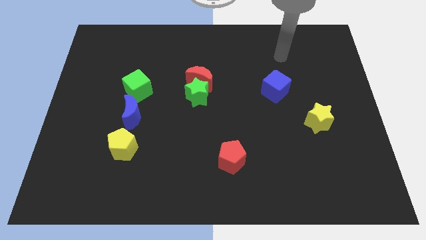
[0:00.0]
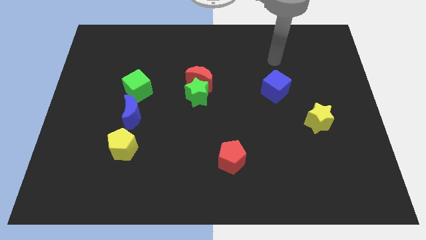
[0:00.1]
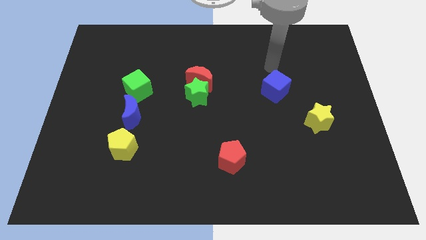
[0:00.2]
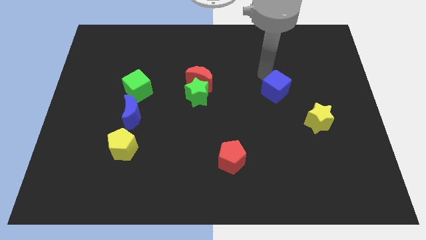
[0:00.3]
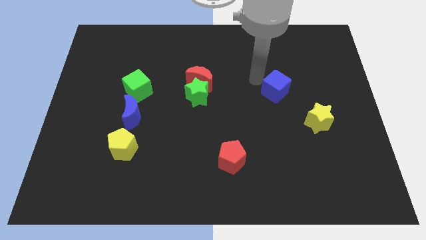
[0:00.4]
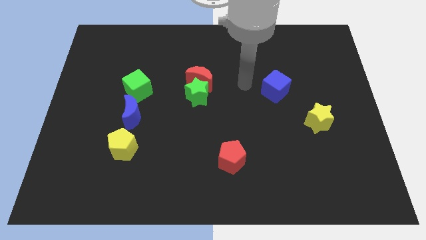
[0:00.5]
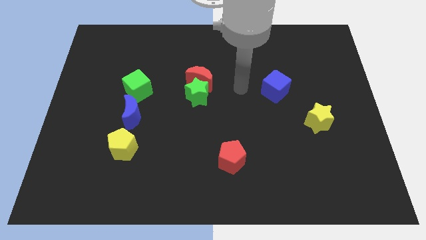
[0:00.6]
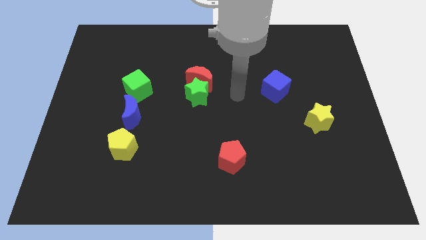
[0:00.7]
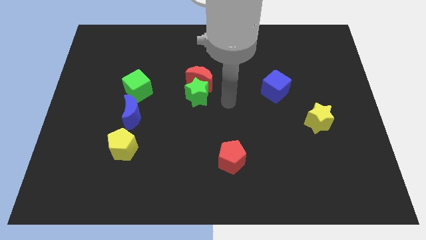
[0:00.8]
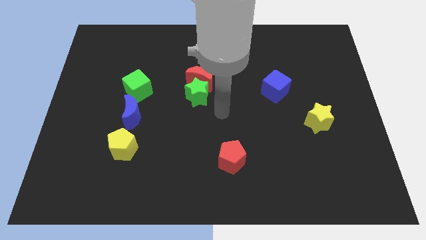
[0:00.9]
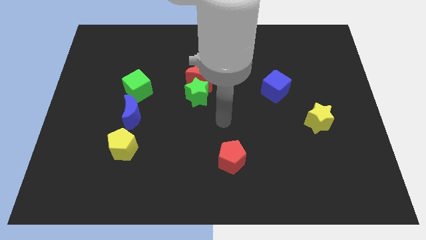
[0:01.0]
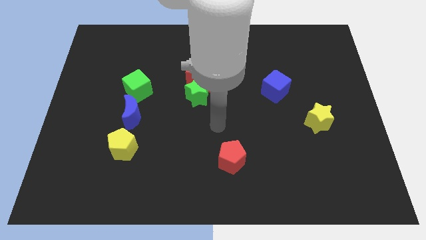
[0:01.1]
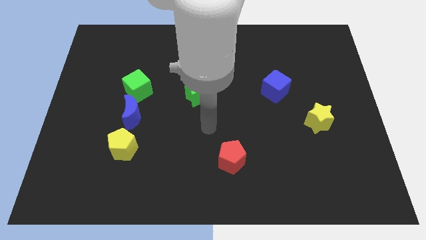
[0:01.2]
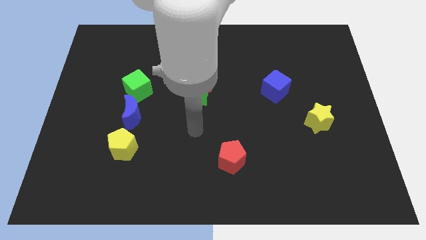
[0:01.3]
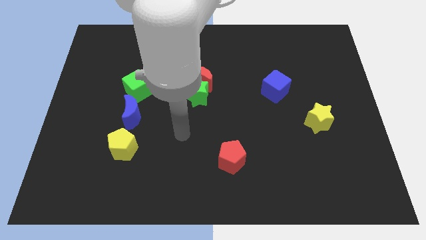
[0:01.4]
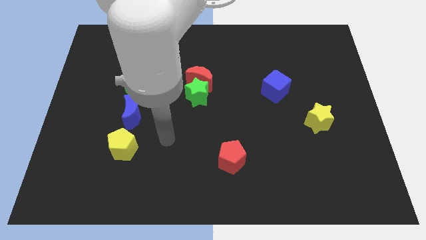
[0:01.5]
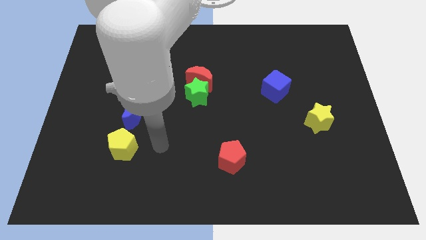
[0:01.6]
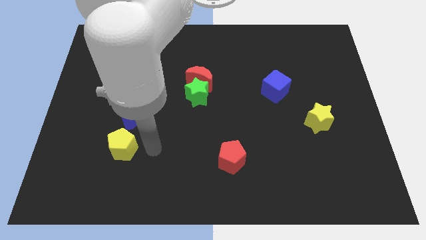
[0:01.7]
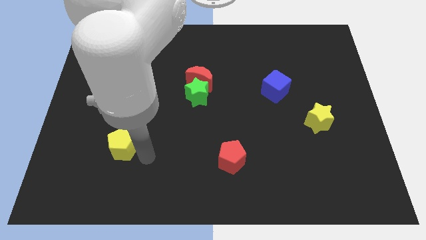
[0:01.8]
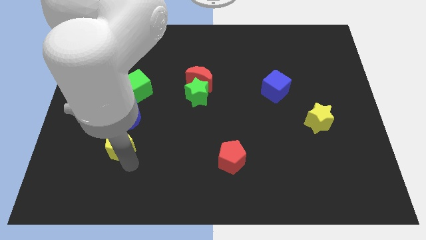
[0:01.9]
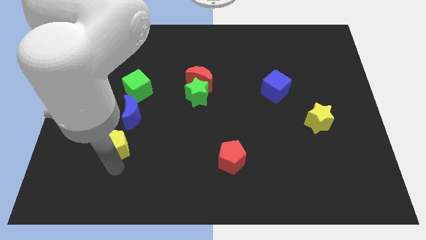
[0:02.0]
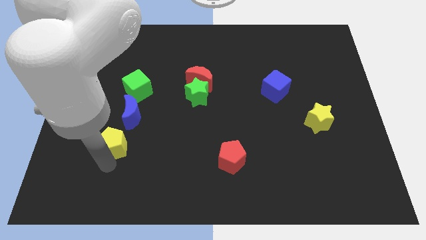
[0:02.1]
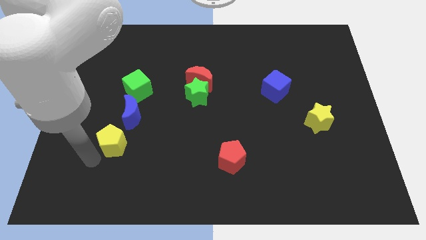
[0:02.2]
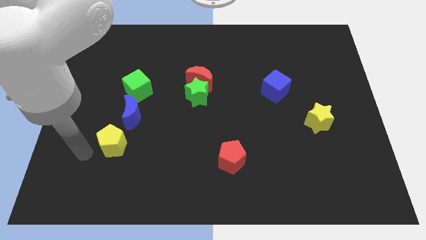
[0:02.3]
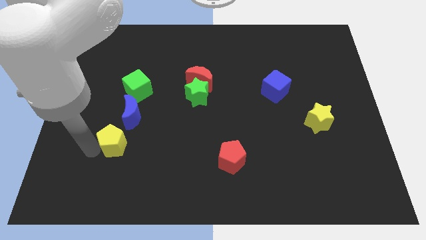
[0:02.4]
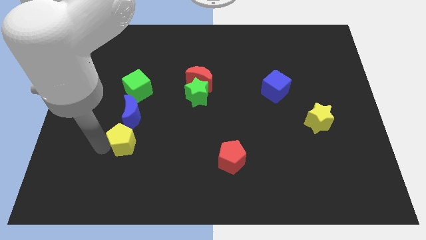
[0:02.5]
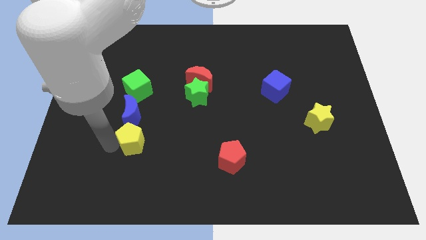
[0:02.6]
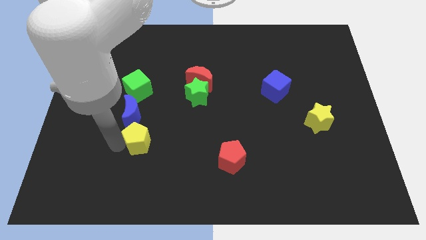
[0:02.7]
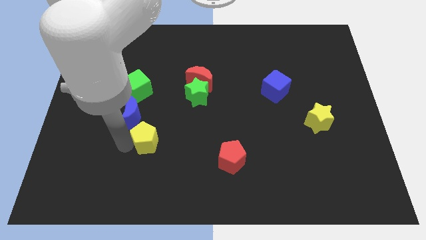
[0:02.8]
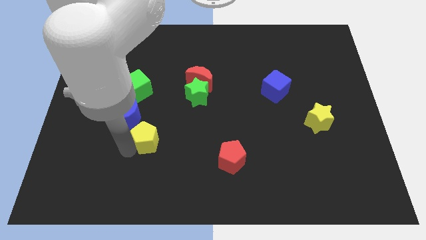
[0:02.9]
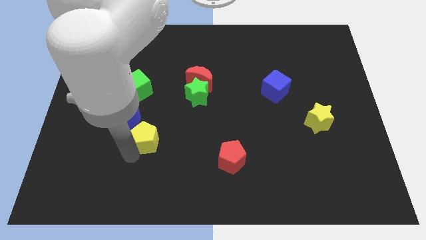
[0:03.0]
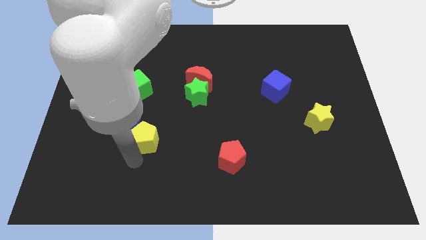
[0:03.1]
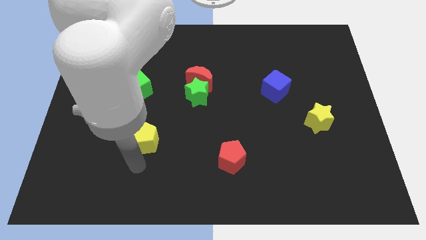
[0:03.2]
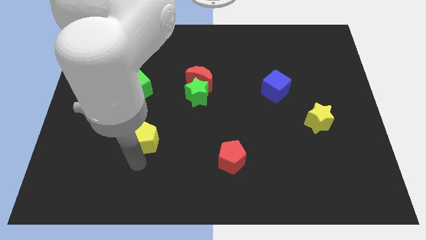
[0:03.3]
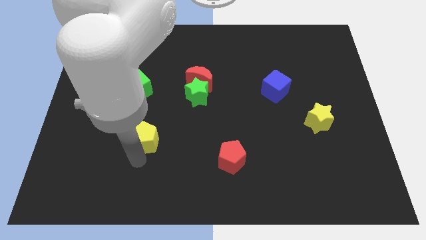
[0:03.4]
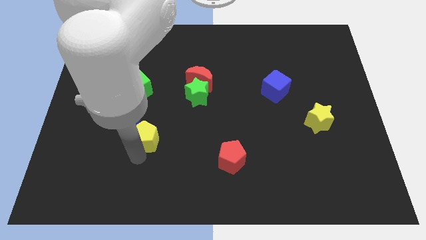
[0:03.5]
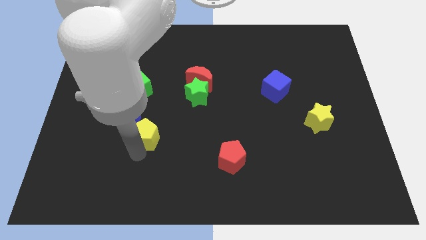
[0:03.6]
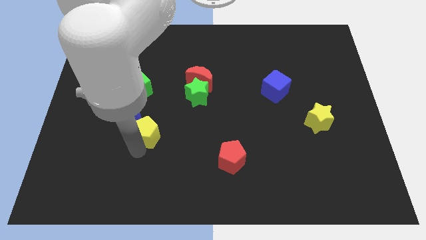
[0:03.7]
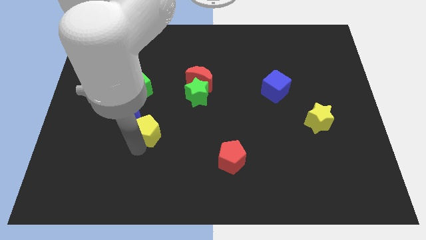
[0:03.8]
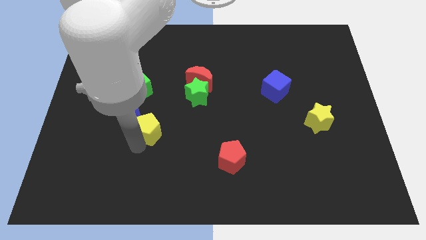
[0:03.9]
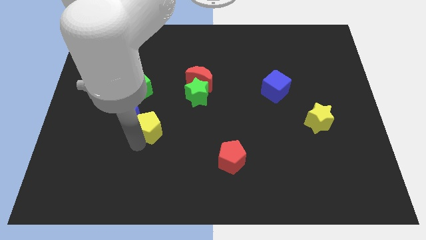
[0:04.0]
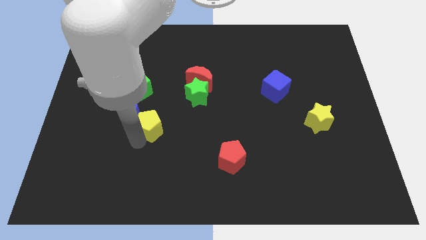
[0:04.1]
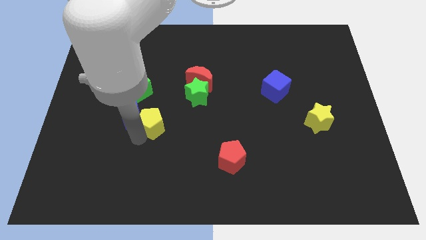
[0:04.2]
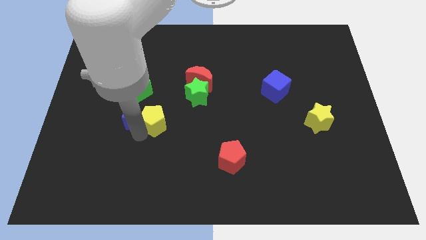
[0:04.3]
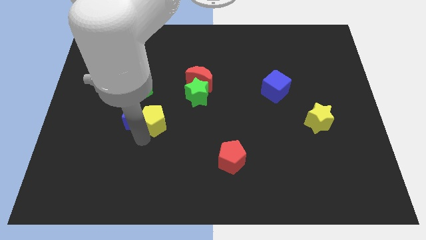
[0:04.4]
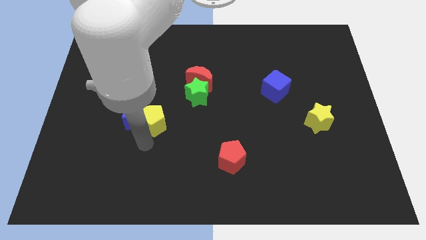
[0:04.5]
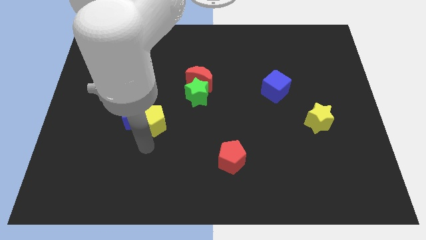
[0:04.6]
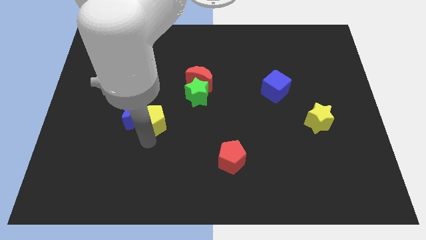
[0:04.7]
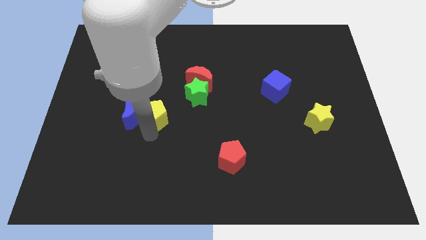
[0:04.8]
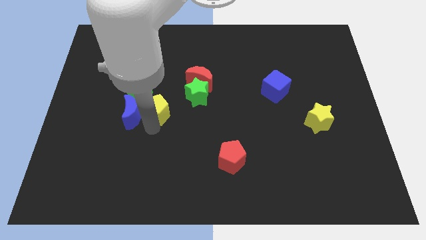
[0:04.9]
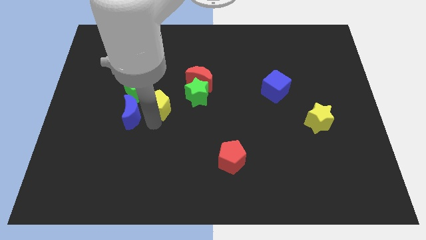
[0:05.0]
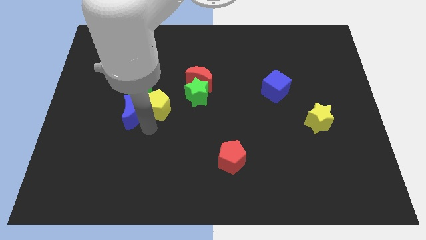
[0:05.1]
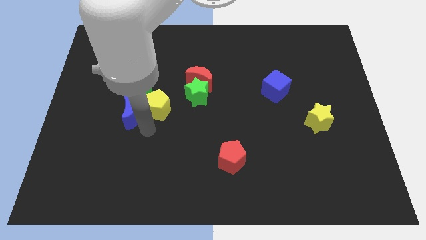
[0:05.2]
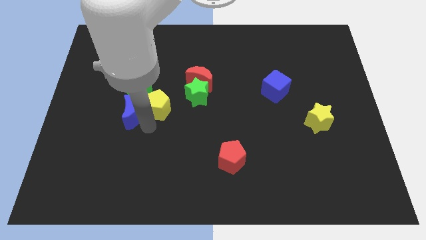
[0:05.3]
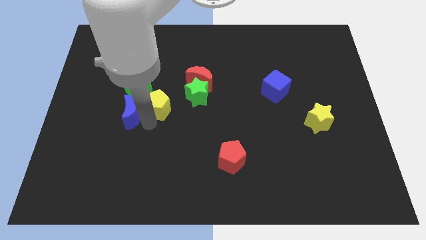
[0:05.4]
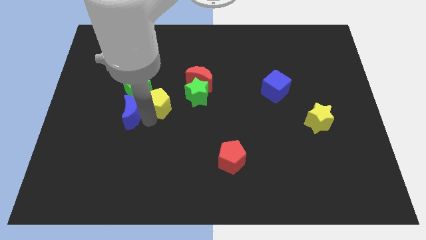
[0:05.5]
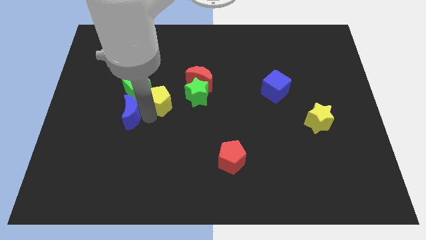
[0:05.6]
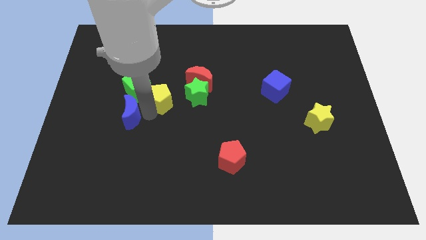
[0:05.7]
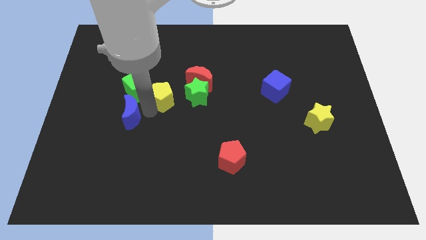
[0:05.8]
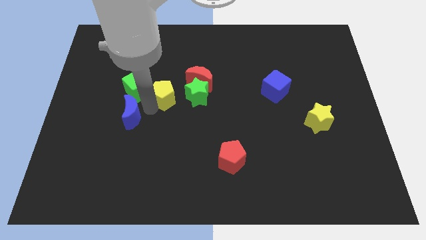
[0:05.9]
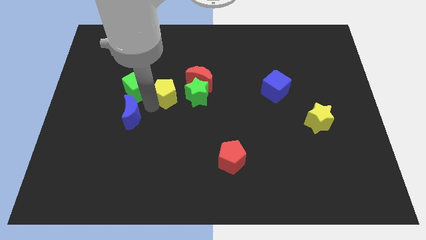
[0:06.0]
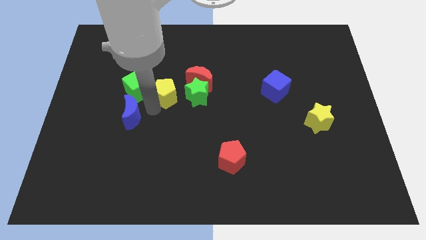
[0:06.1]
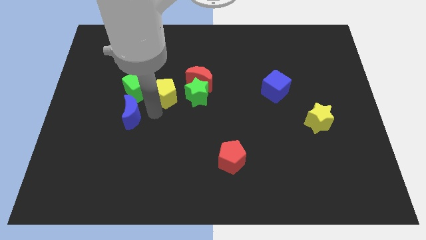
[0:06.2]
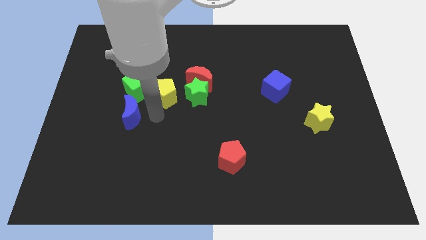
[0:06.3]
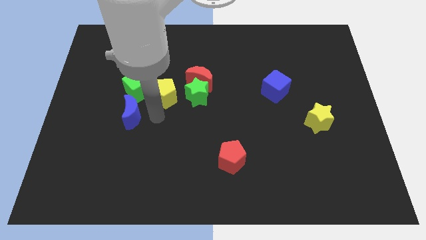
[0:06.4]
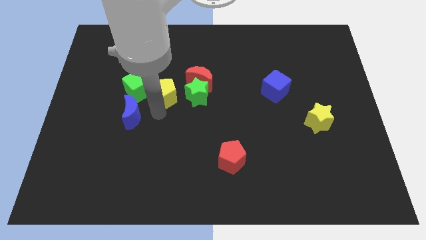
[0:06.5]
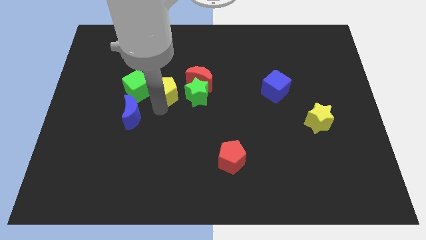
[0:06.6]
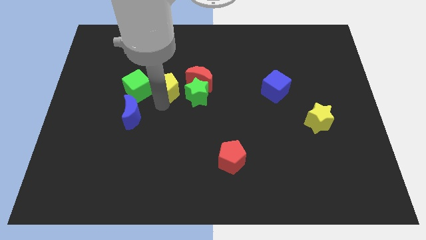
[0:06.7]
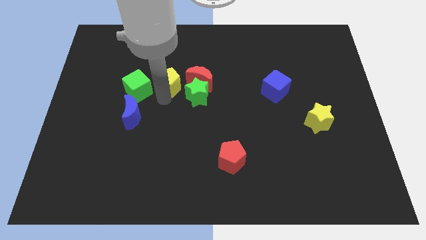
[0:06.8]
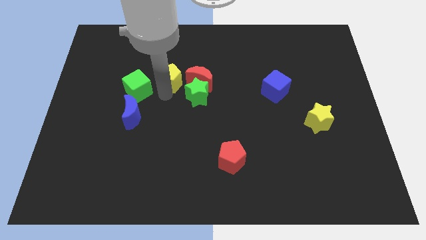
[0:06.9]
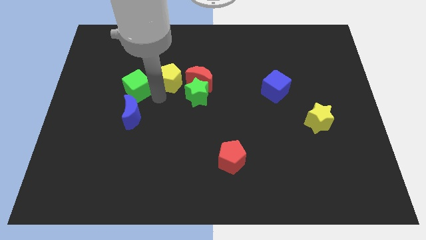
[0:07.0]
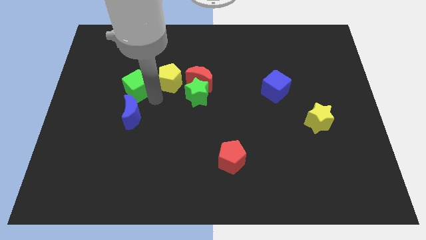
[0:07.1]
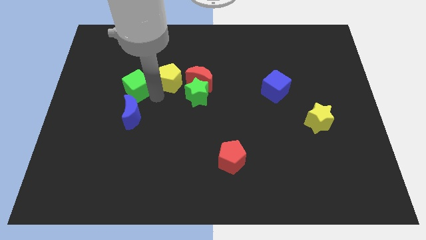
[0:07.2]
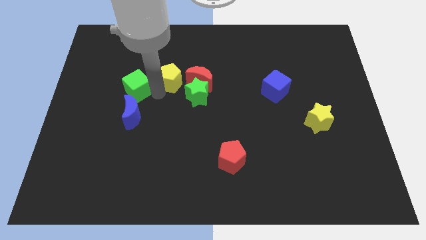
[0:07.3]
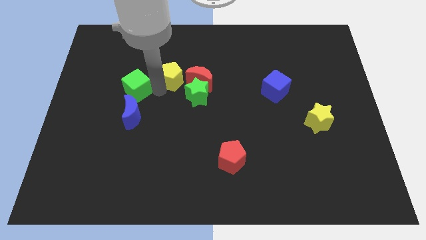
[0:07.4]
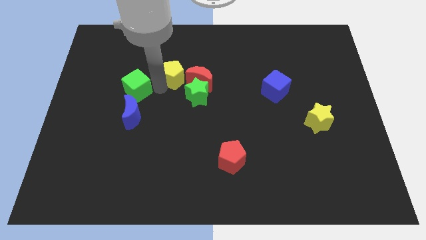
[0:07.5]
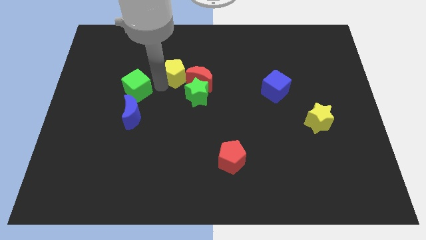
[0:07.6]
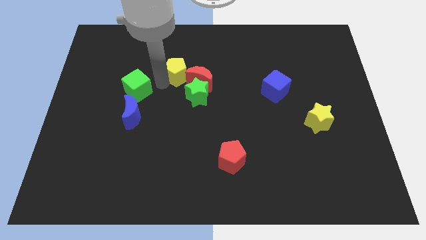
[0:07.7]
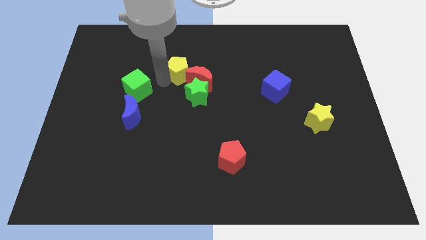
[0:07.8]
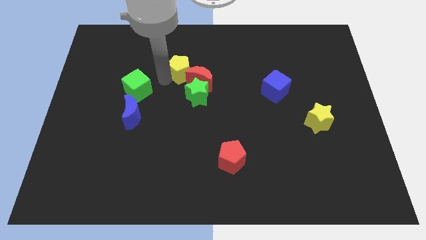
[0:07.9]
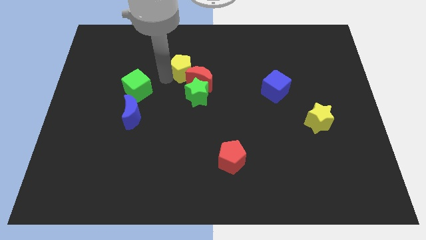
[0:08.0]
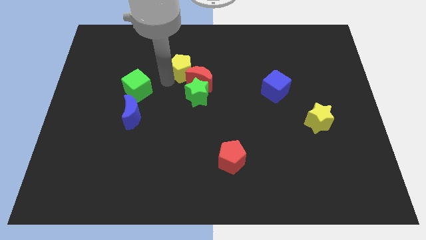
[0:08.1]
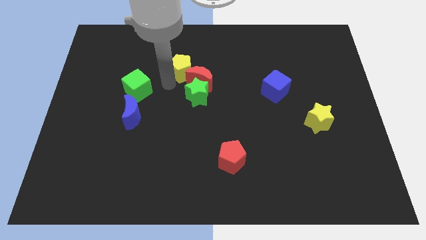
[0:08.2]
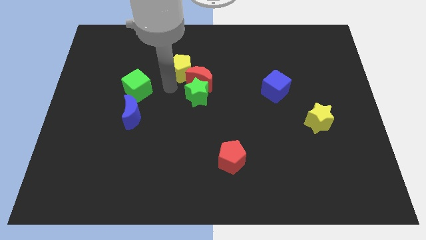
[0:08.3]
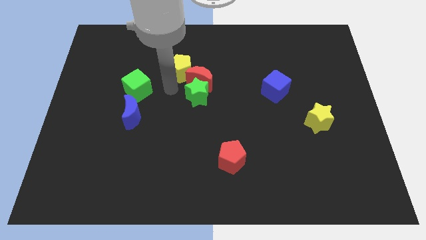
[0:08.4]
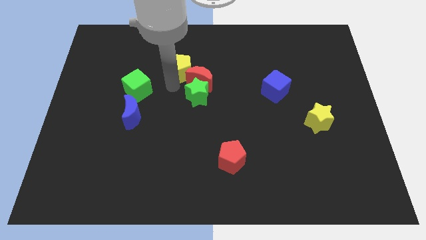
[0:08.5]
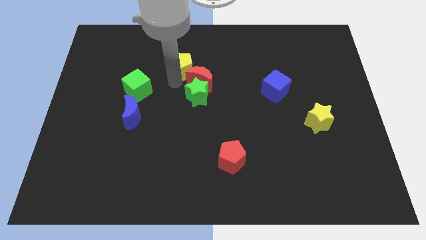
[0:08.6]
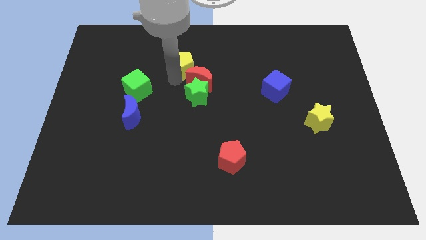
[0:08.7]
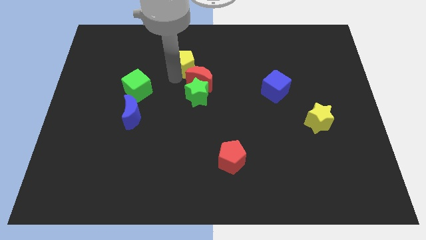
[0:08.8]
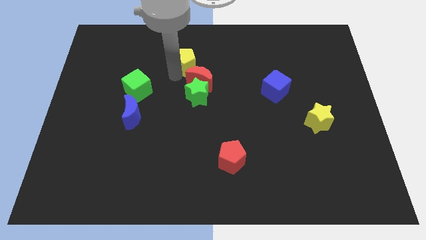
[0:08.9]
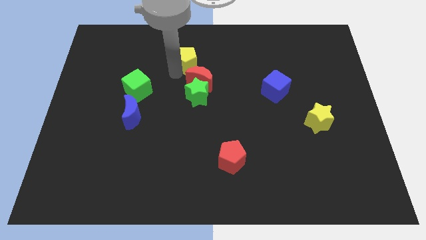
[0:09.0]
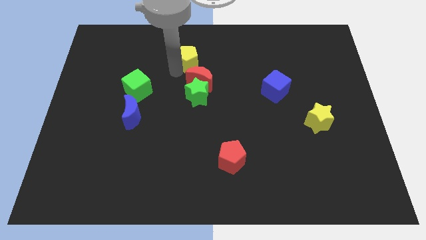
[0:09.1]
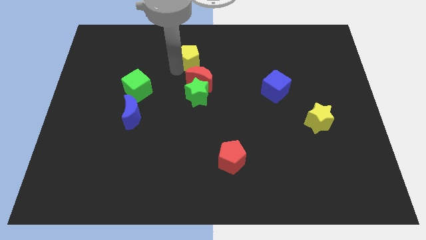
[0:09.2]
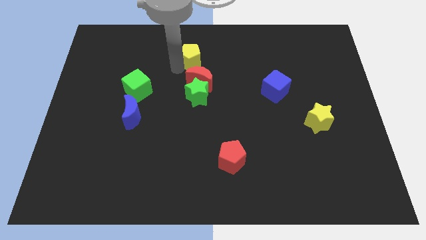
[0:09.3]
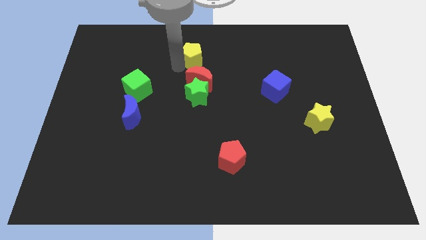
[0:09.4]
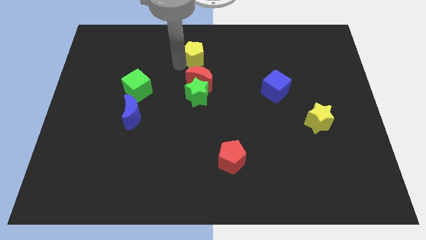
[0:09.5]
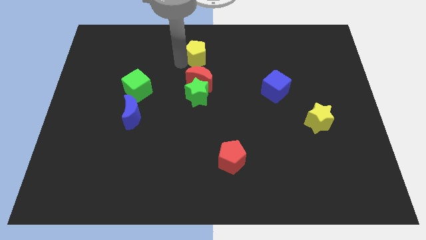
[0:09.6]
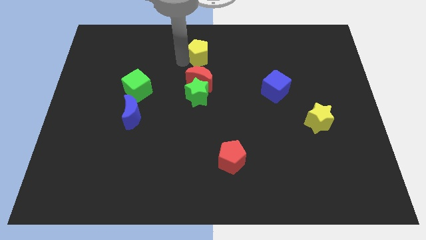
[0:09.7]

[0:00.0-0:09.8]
put the yellow pentagon to the top side
